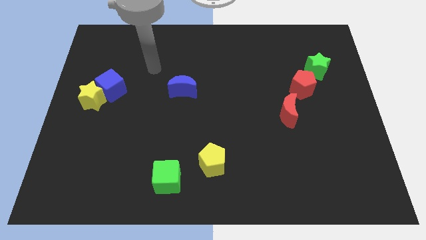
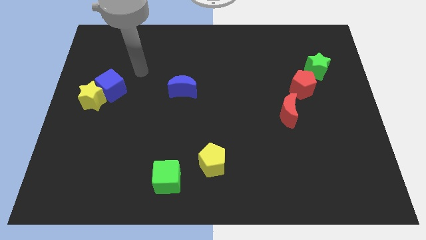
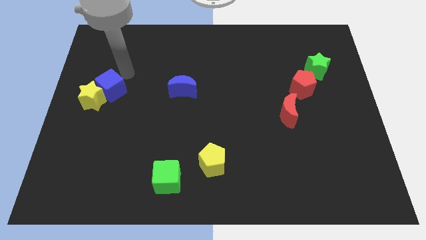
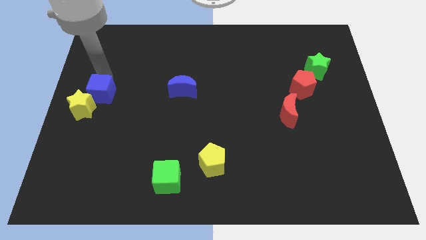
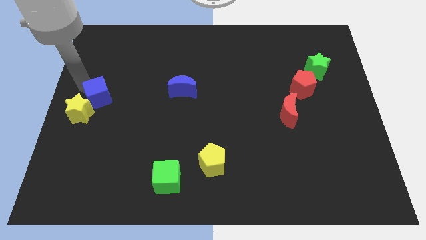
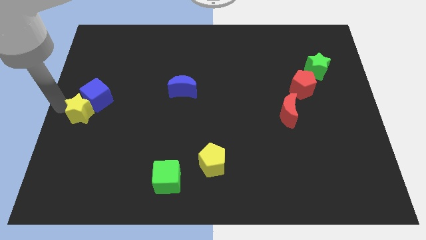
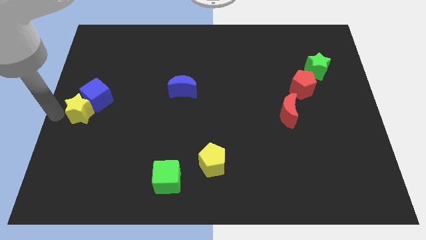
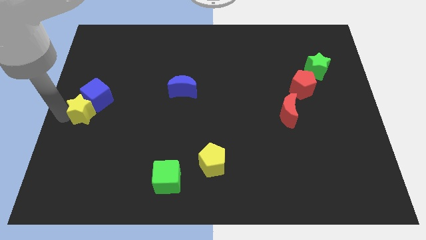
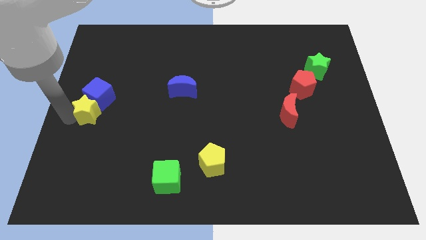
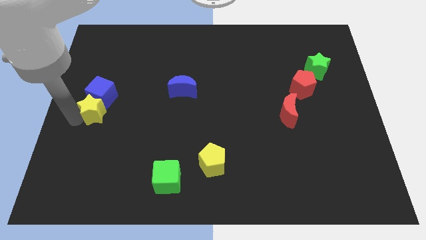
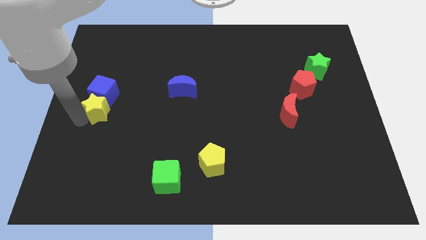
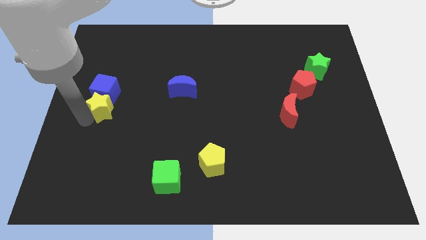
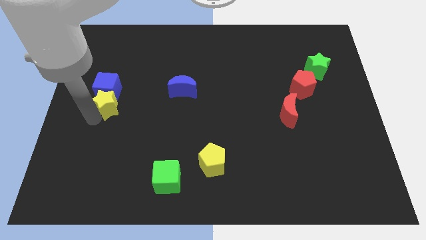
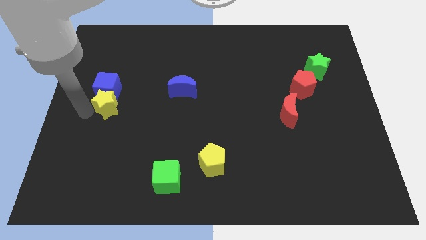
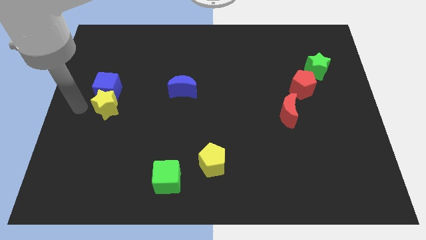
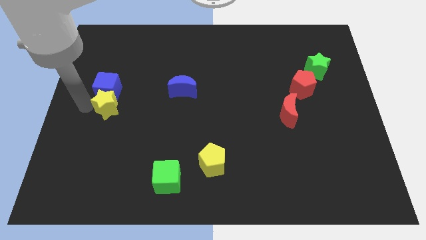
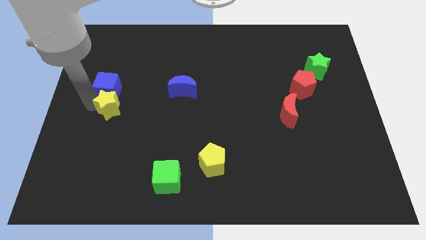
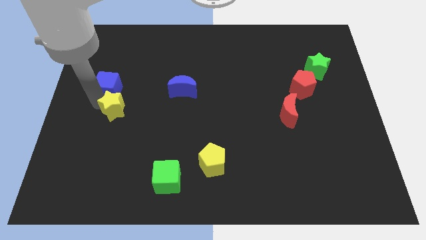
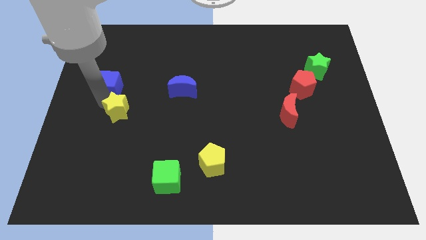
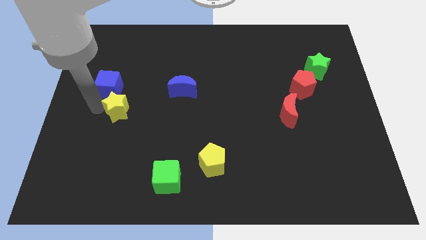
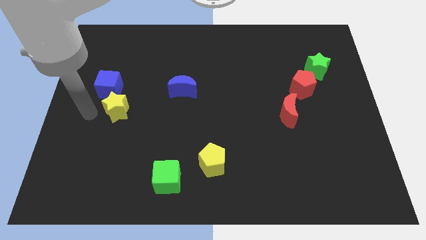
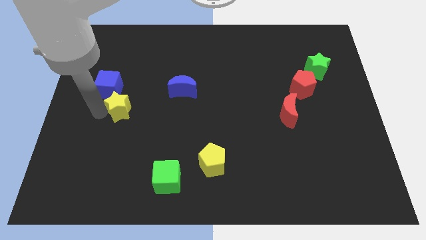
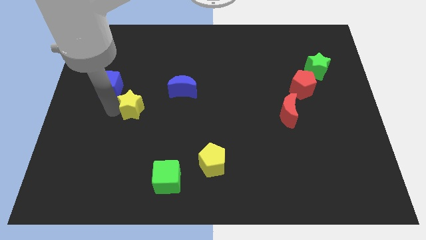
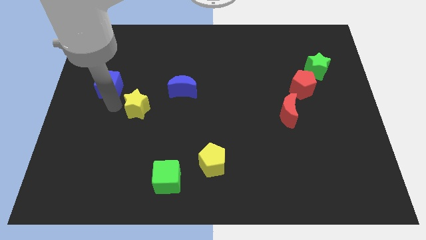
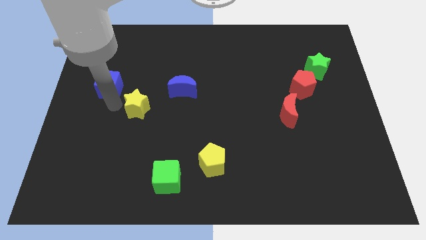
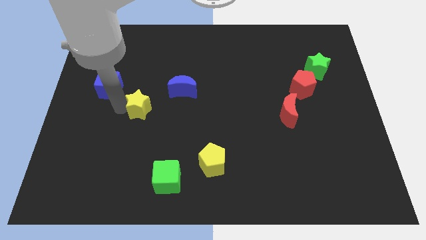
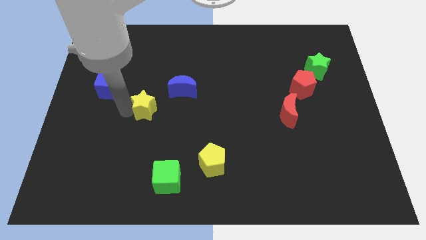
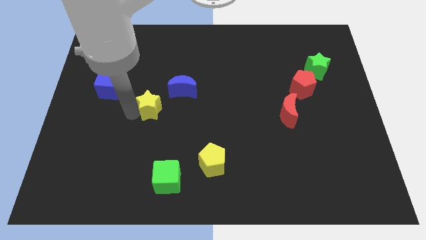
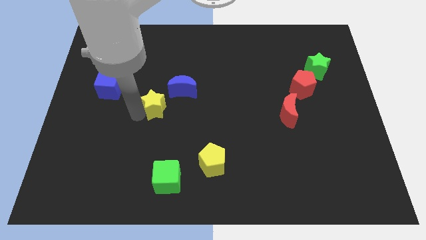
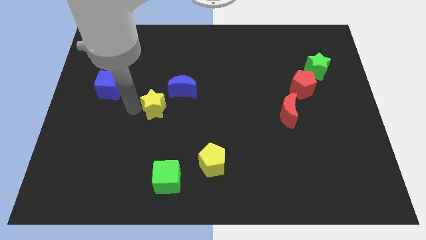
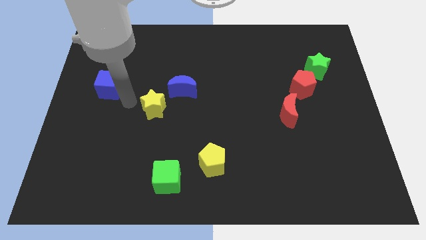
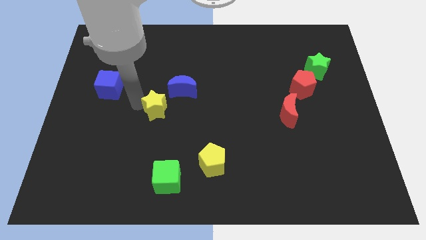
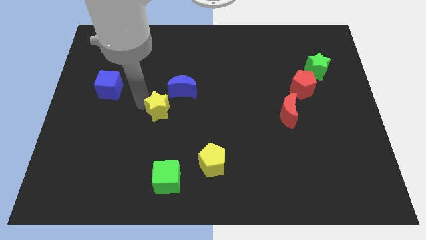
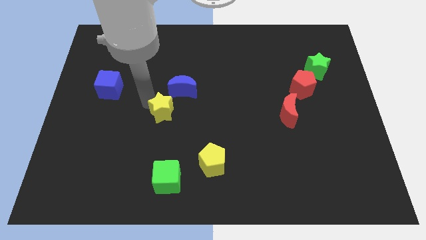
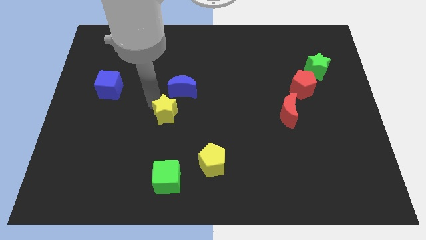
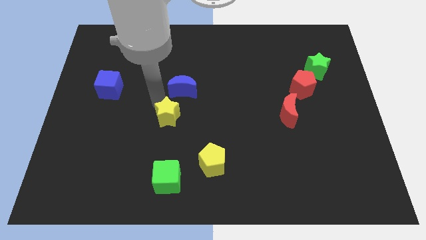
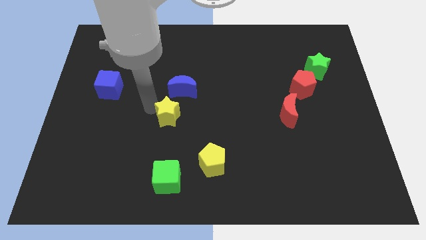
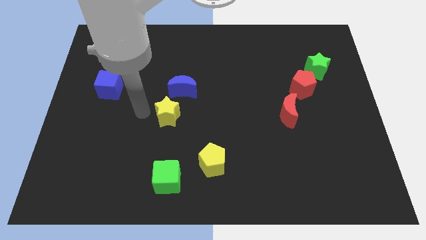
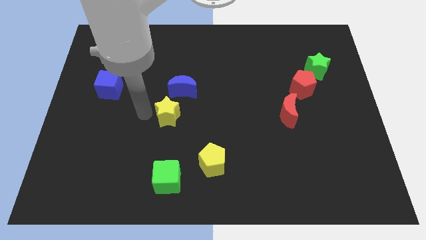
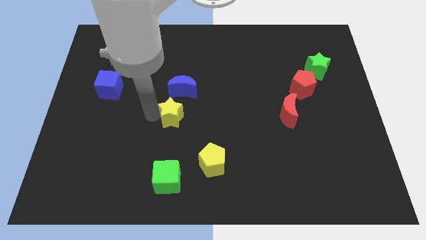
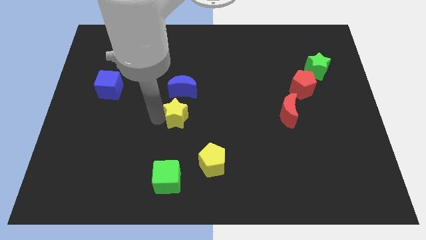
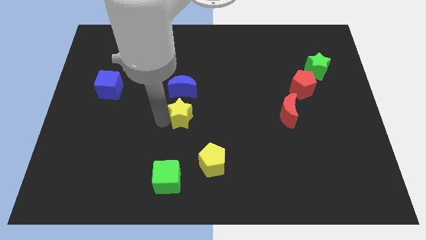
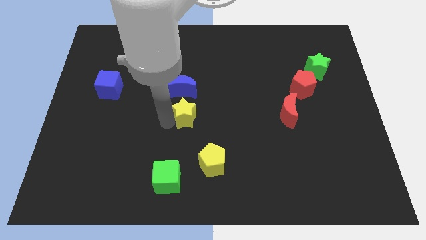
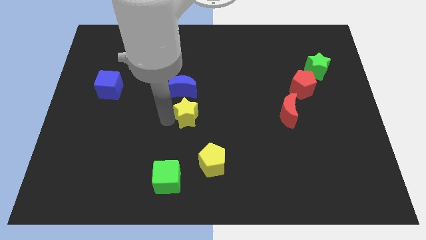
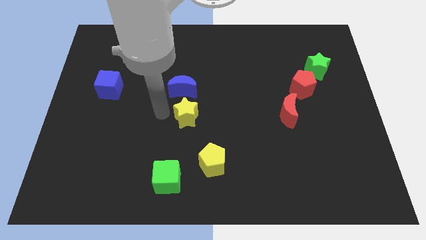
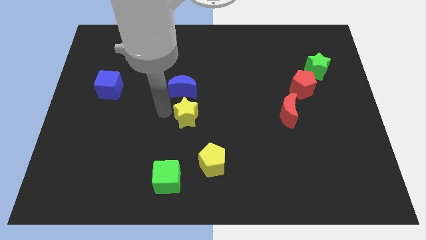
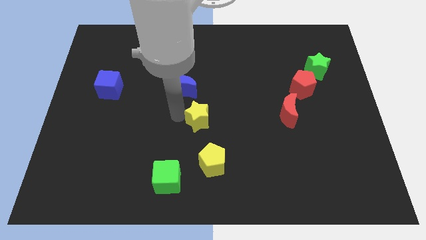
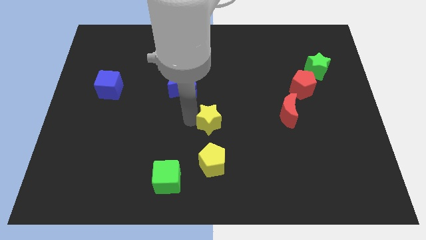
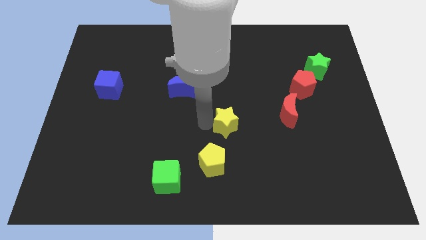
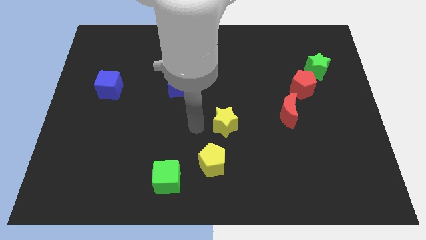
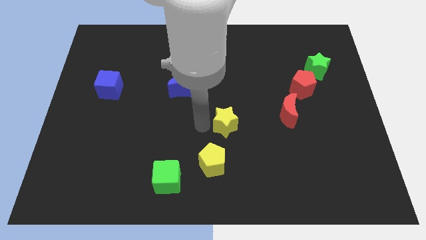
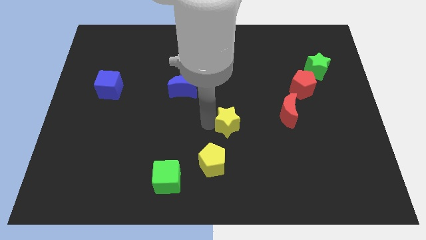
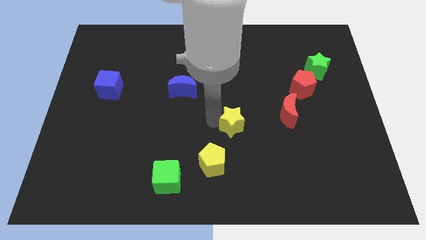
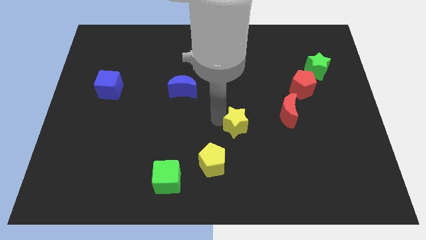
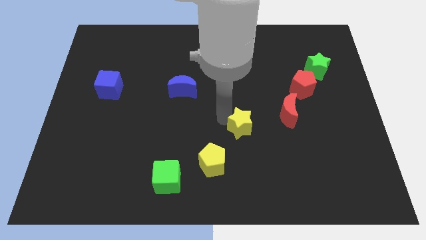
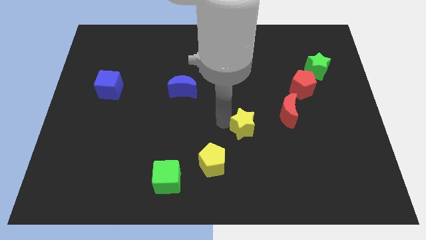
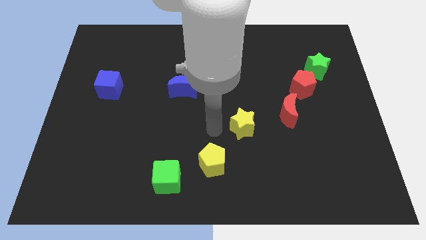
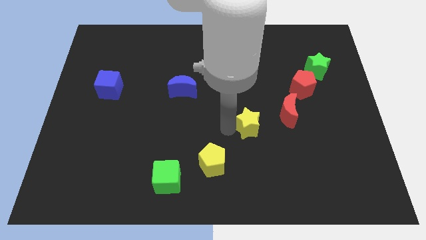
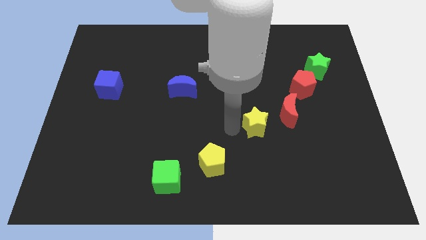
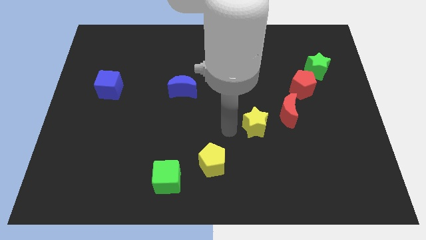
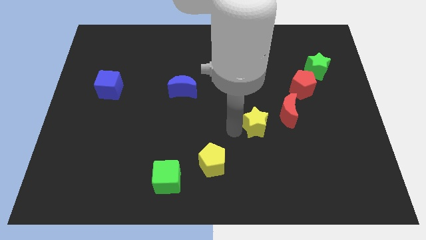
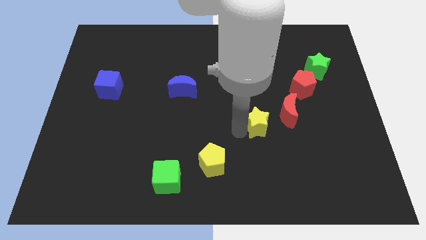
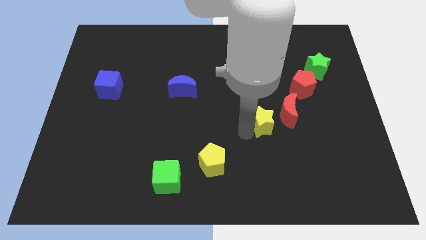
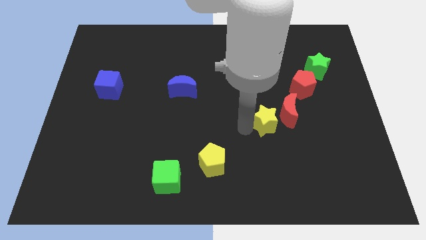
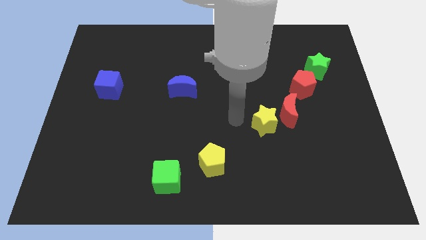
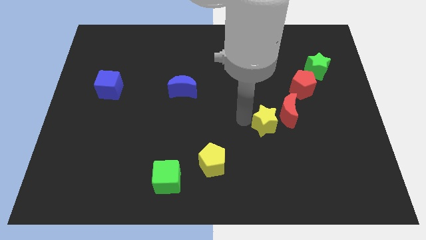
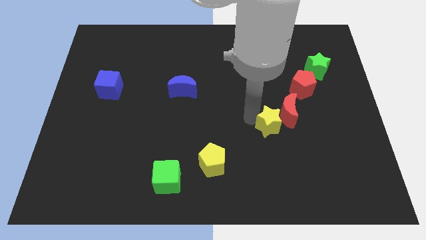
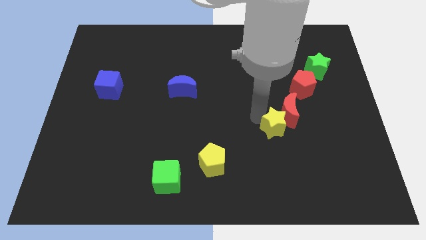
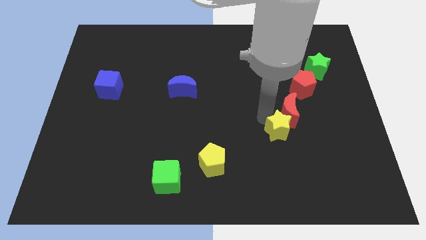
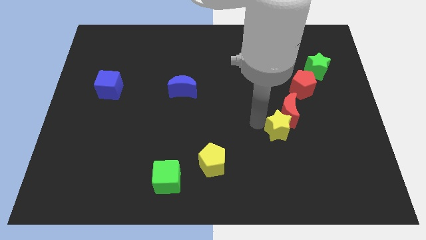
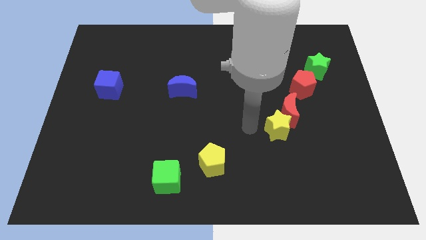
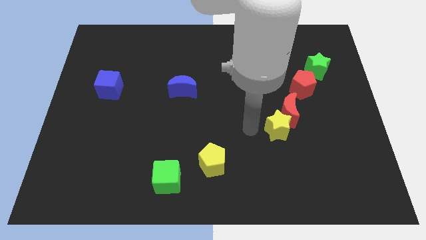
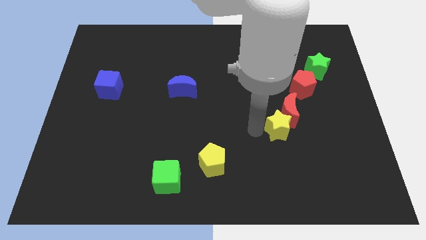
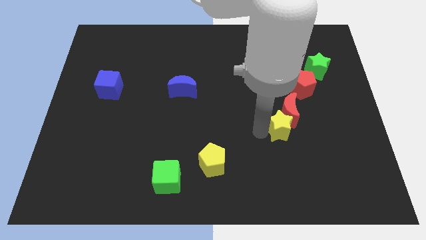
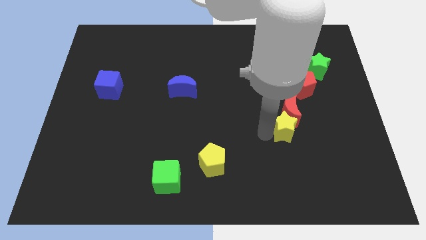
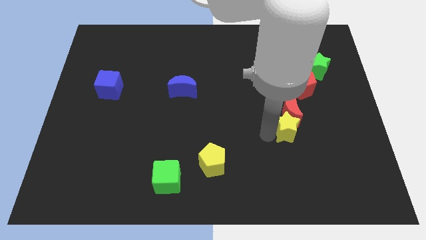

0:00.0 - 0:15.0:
put the yellow star to the bottom right side of the red moon
